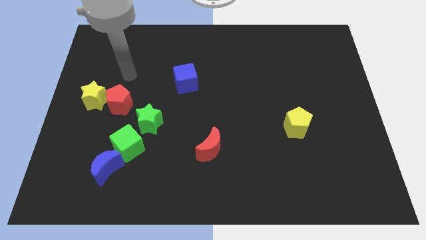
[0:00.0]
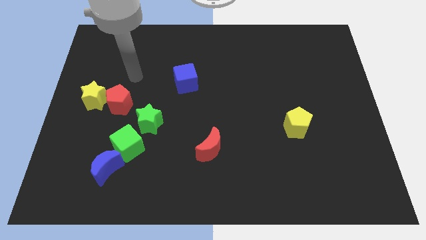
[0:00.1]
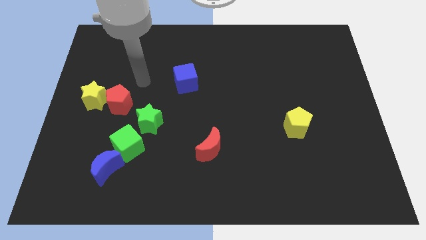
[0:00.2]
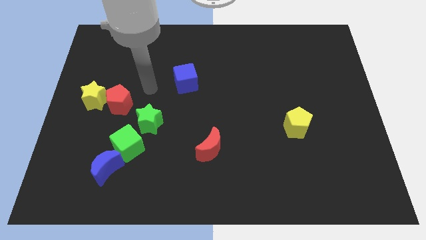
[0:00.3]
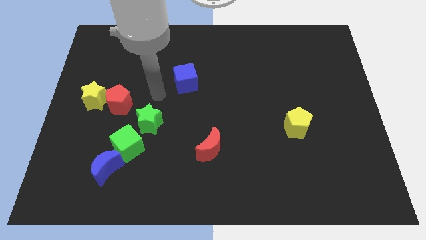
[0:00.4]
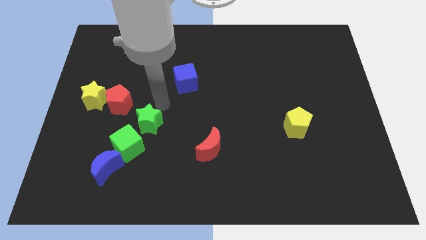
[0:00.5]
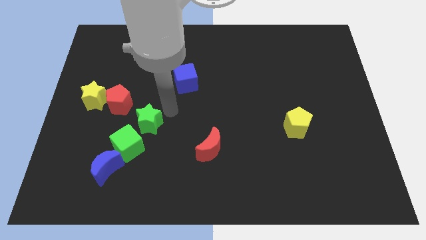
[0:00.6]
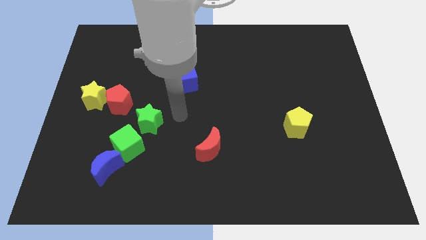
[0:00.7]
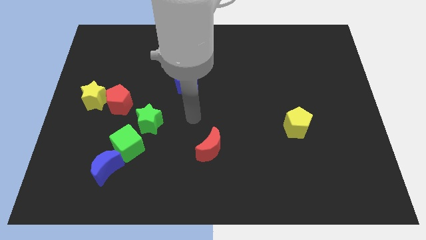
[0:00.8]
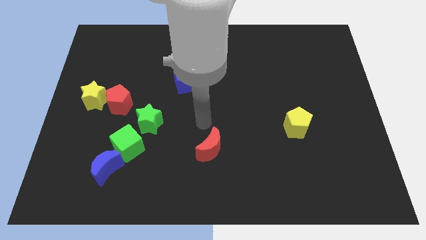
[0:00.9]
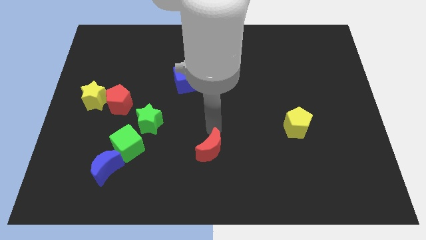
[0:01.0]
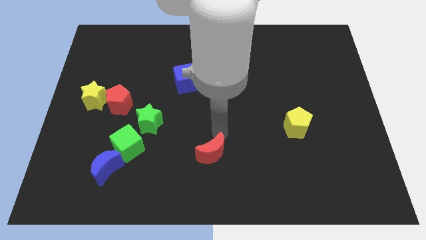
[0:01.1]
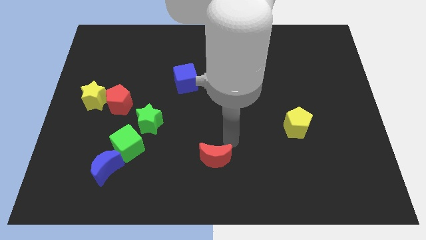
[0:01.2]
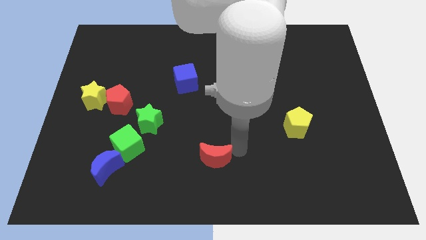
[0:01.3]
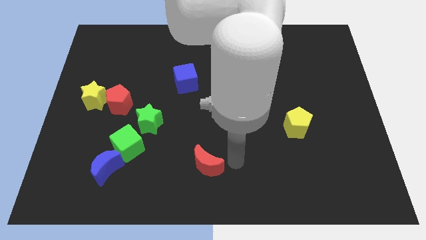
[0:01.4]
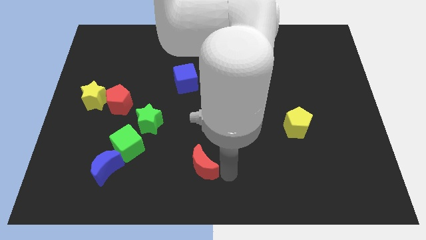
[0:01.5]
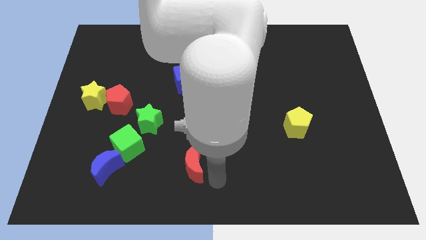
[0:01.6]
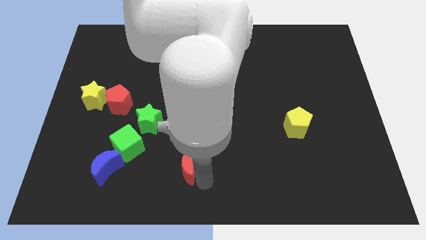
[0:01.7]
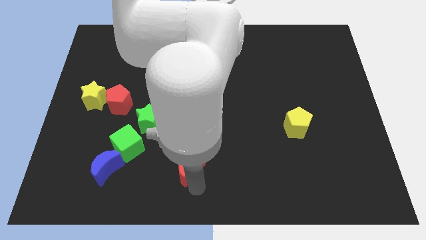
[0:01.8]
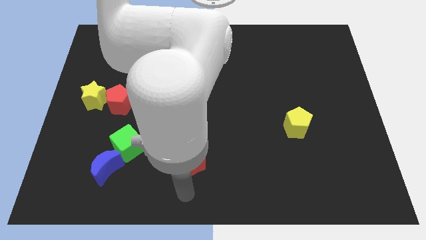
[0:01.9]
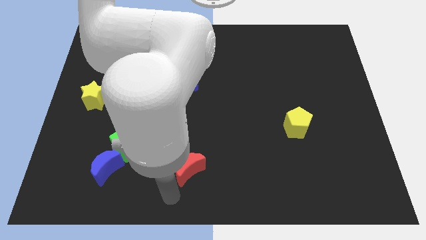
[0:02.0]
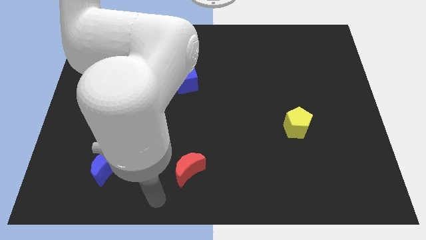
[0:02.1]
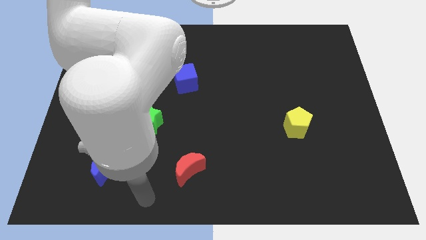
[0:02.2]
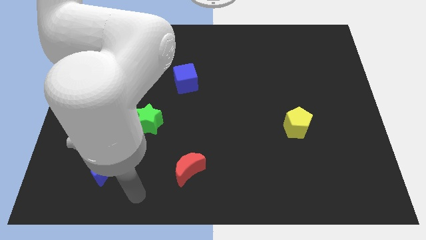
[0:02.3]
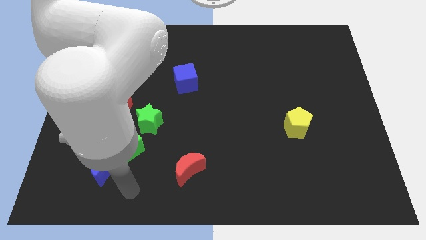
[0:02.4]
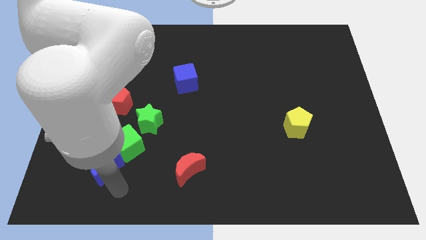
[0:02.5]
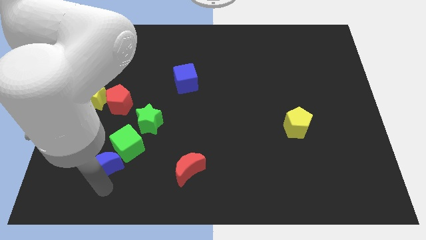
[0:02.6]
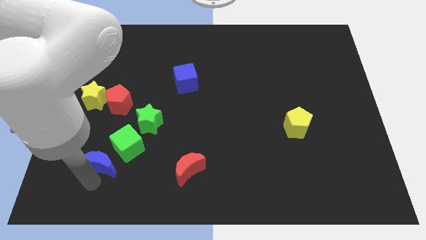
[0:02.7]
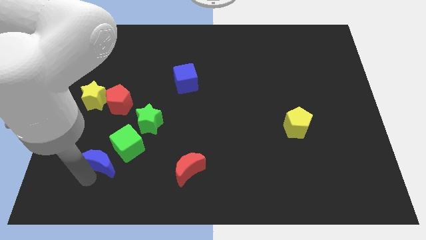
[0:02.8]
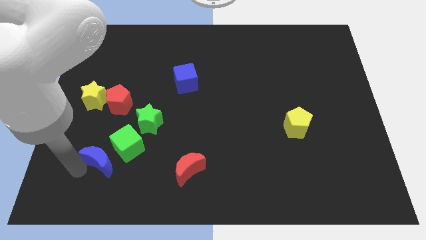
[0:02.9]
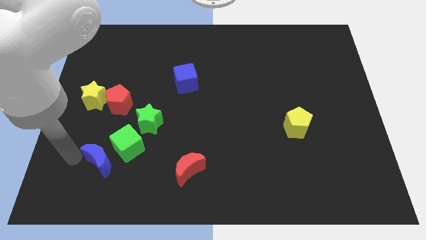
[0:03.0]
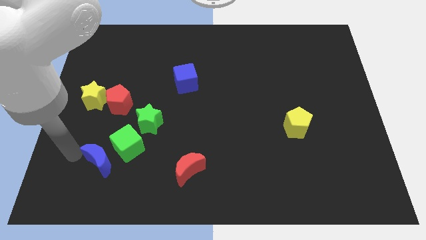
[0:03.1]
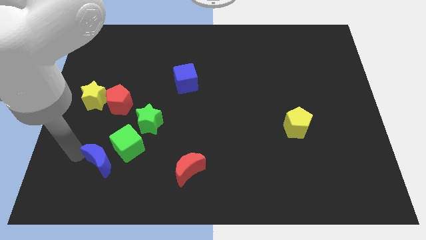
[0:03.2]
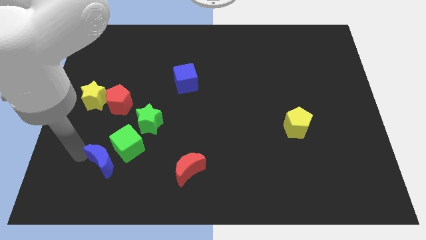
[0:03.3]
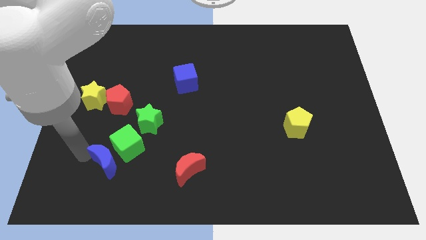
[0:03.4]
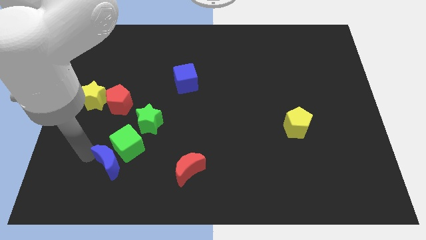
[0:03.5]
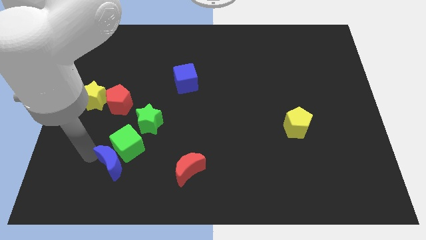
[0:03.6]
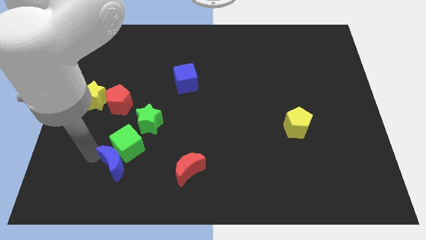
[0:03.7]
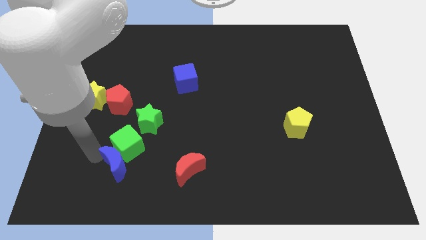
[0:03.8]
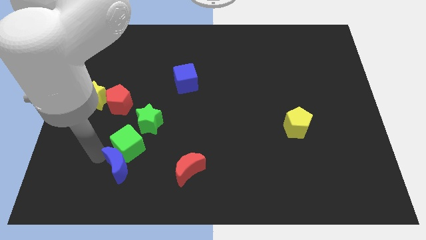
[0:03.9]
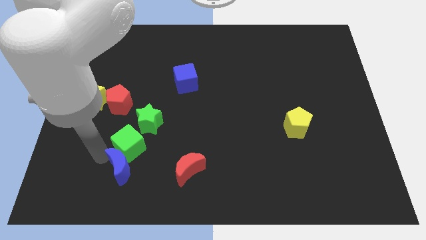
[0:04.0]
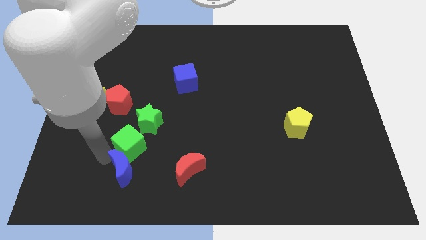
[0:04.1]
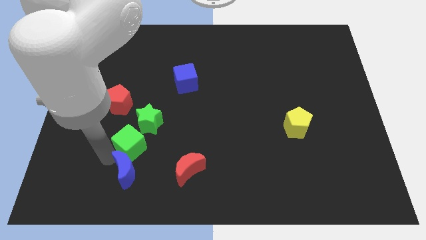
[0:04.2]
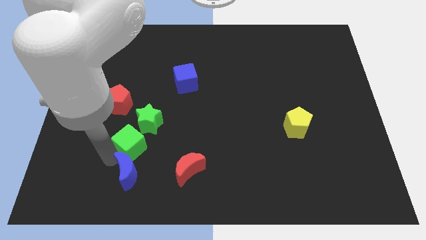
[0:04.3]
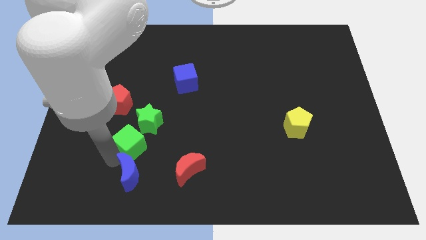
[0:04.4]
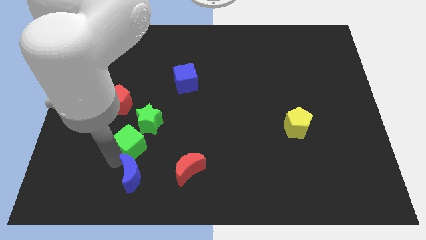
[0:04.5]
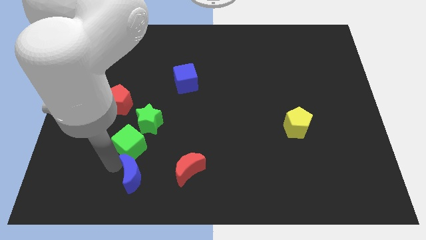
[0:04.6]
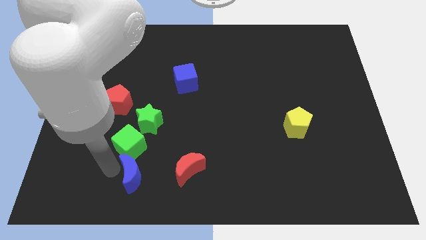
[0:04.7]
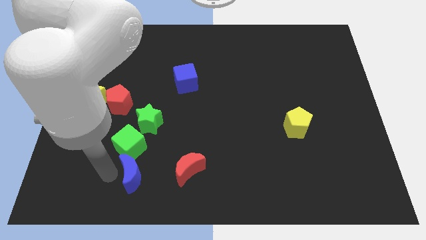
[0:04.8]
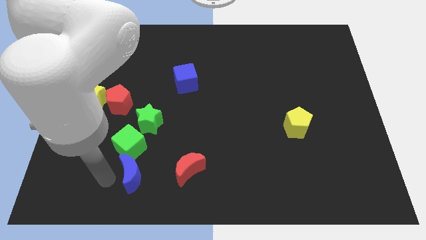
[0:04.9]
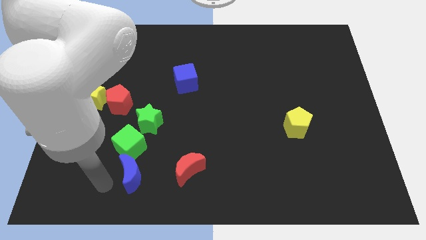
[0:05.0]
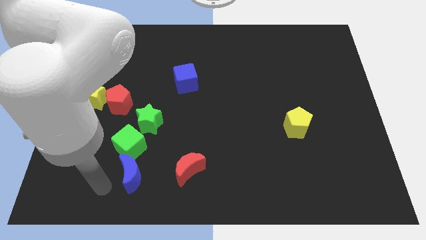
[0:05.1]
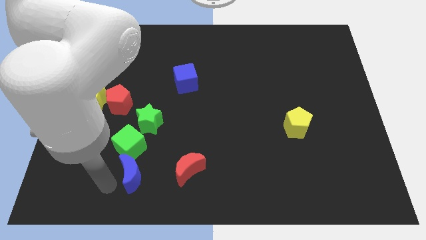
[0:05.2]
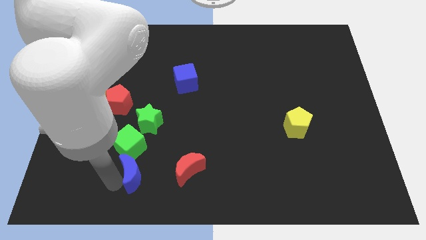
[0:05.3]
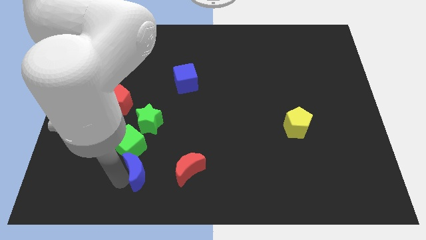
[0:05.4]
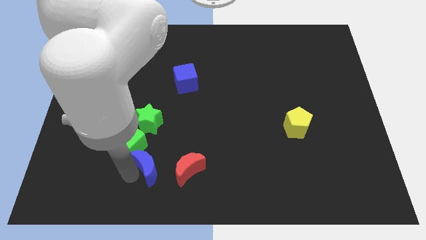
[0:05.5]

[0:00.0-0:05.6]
move the blue moon right a little bit

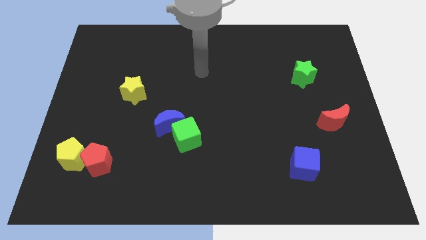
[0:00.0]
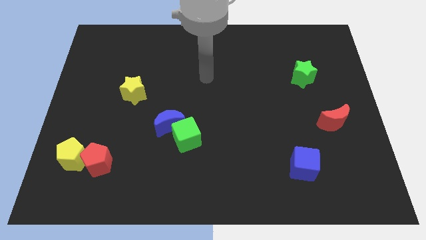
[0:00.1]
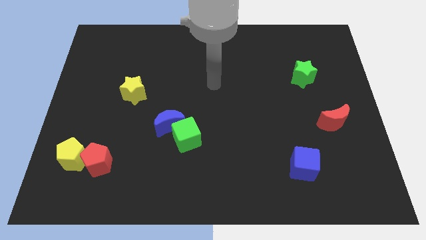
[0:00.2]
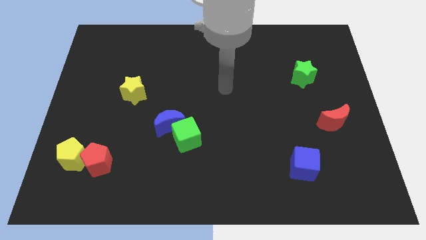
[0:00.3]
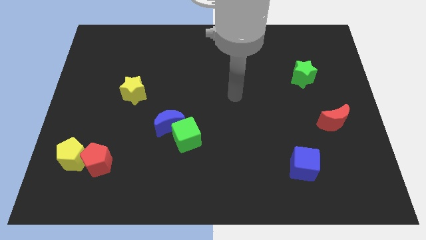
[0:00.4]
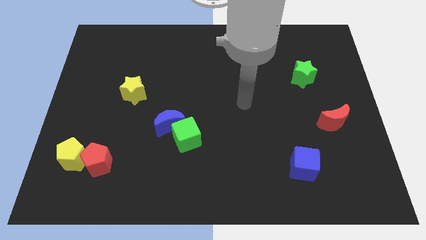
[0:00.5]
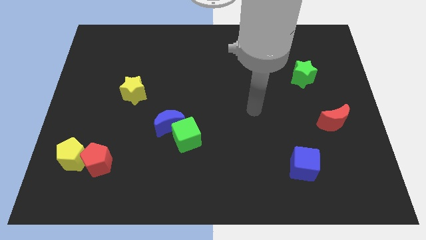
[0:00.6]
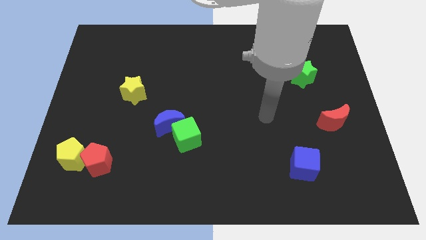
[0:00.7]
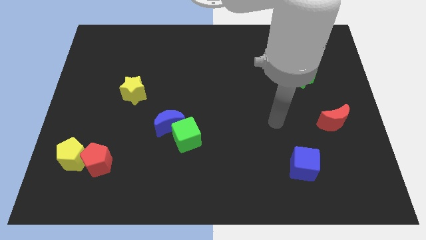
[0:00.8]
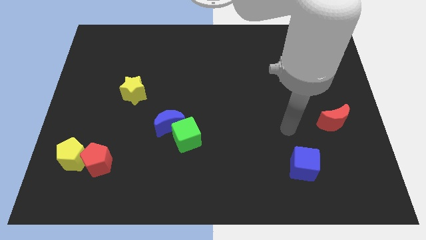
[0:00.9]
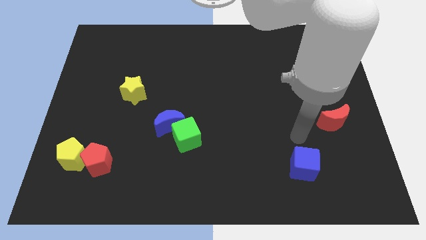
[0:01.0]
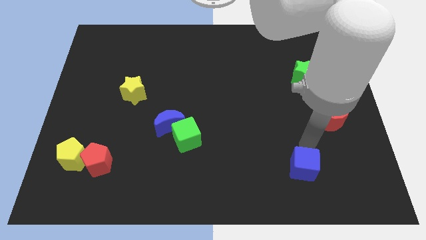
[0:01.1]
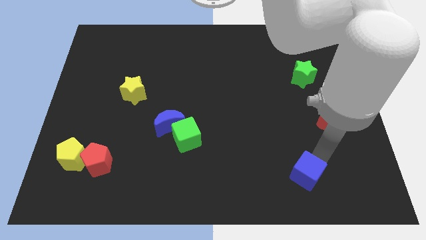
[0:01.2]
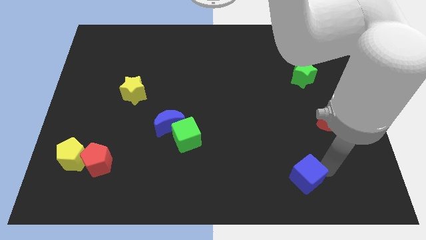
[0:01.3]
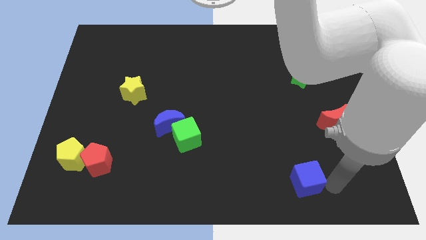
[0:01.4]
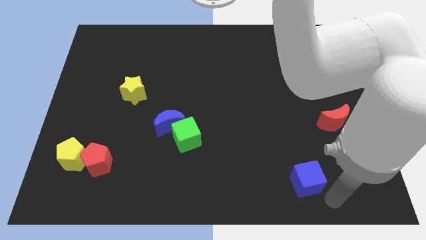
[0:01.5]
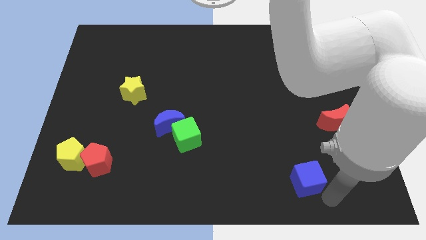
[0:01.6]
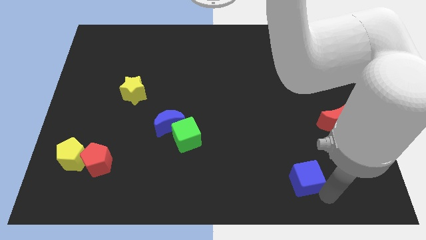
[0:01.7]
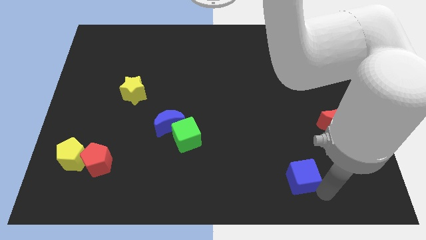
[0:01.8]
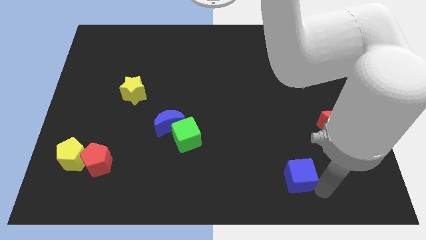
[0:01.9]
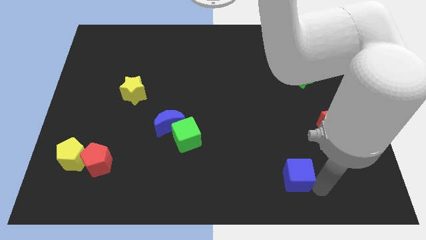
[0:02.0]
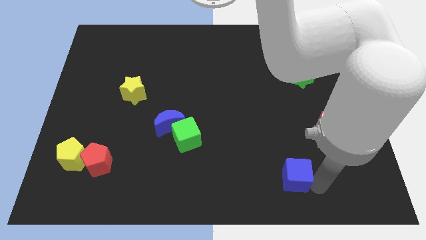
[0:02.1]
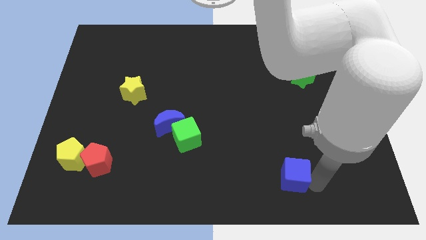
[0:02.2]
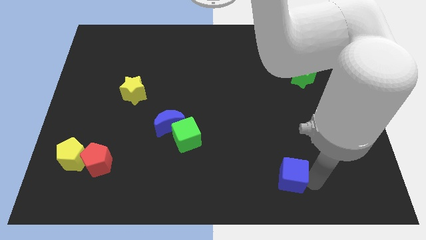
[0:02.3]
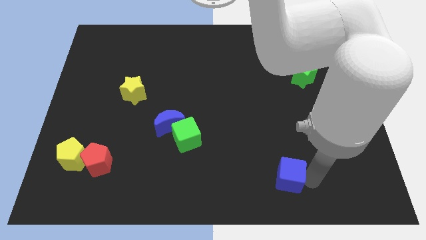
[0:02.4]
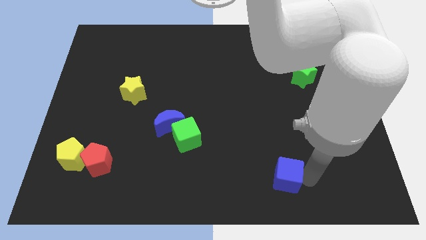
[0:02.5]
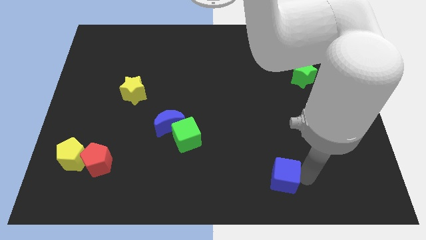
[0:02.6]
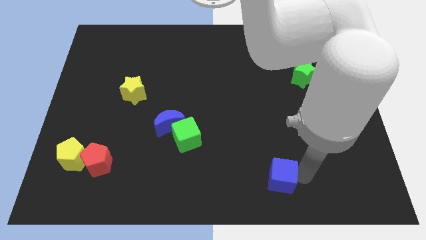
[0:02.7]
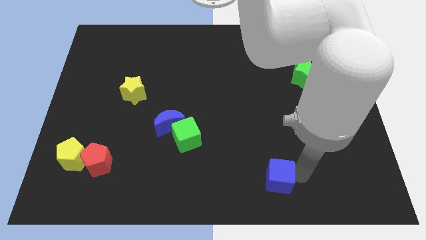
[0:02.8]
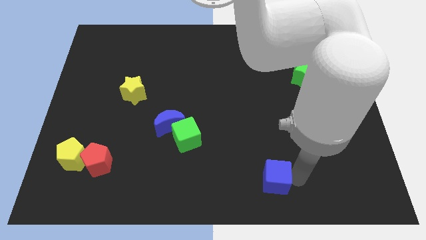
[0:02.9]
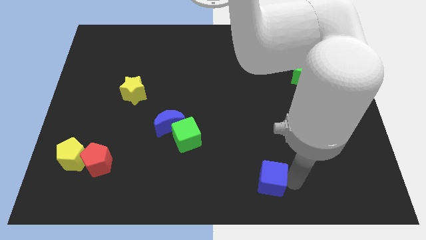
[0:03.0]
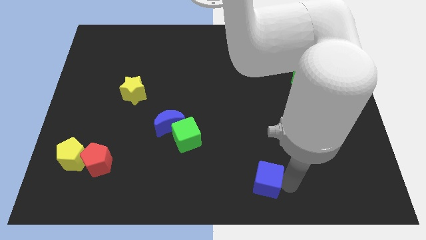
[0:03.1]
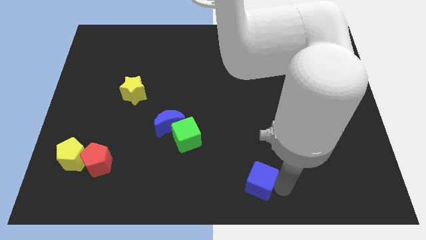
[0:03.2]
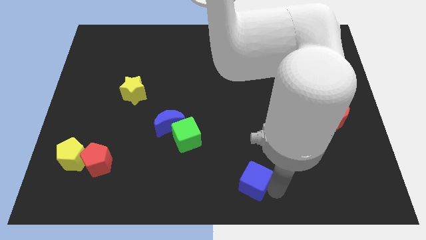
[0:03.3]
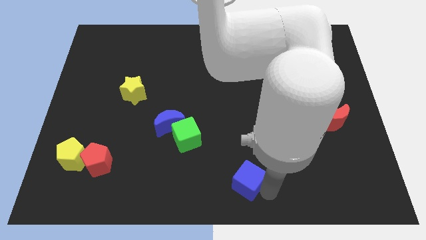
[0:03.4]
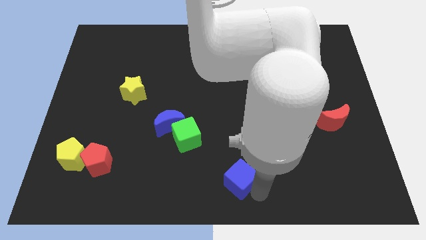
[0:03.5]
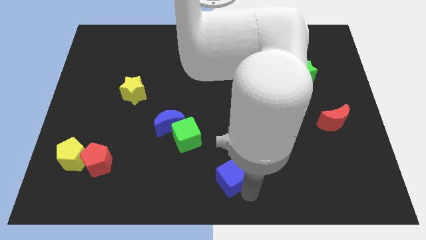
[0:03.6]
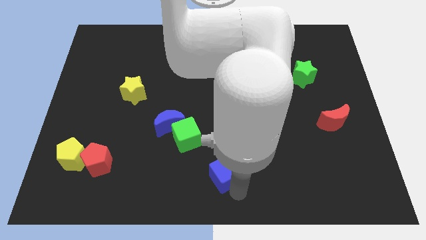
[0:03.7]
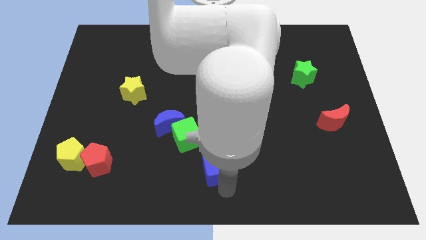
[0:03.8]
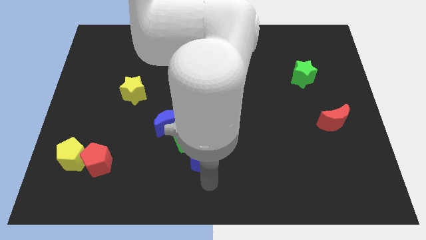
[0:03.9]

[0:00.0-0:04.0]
push the blue cube to the left
